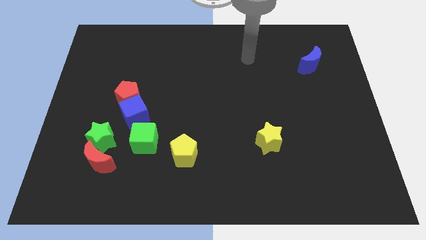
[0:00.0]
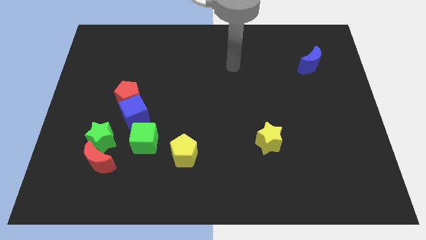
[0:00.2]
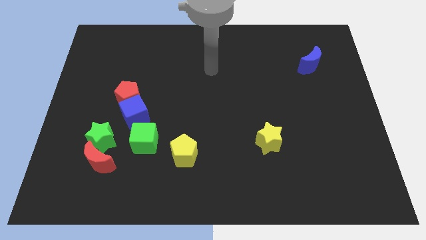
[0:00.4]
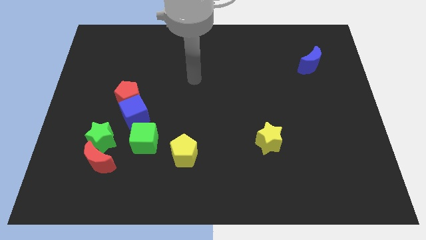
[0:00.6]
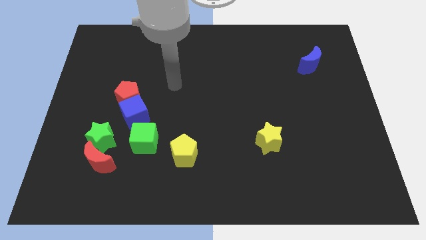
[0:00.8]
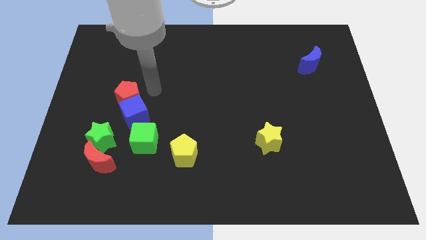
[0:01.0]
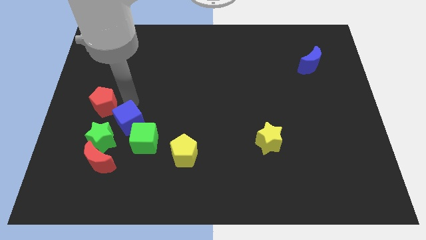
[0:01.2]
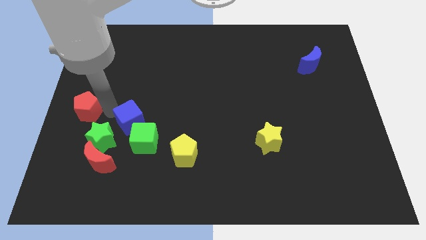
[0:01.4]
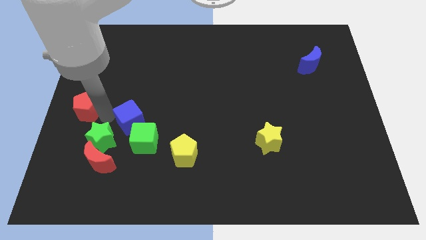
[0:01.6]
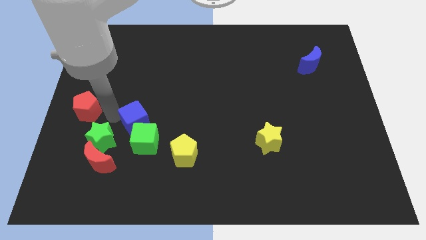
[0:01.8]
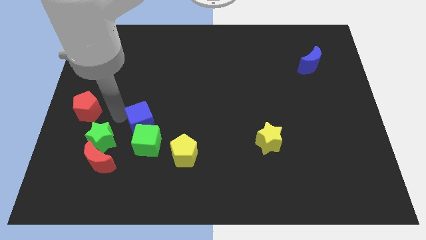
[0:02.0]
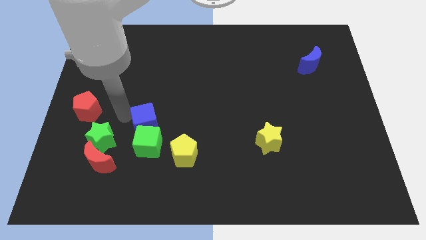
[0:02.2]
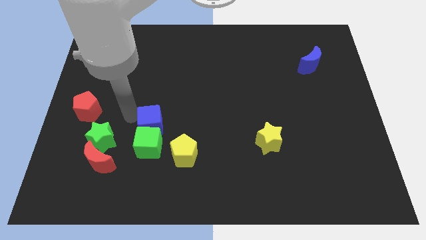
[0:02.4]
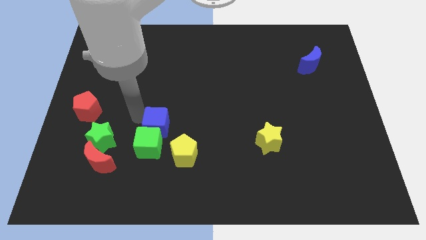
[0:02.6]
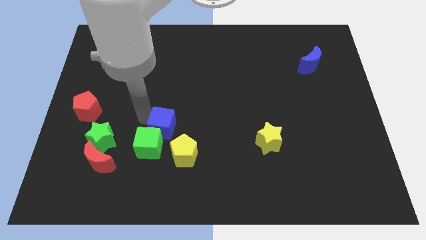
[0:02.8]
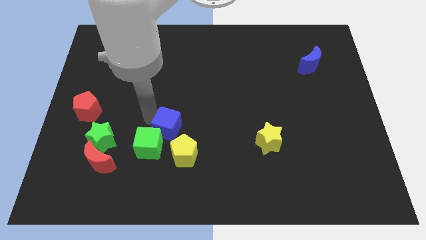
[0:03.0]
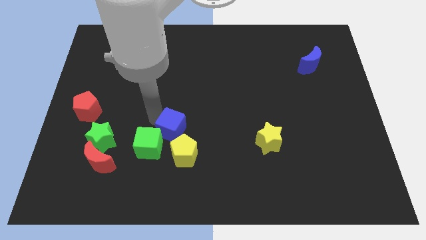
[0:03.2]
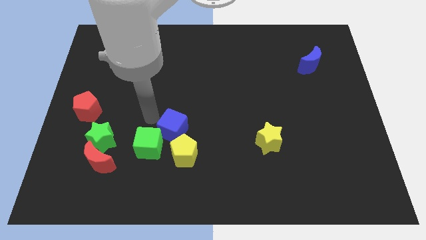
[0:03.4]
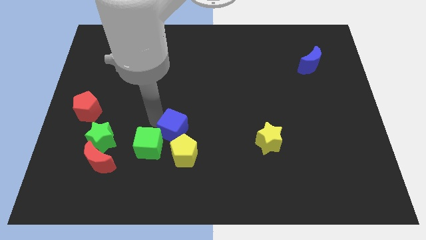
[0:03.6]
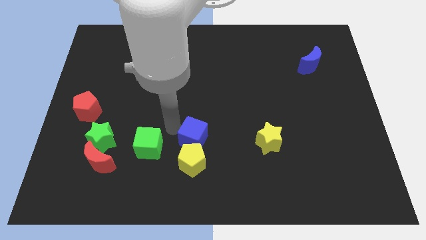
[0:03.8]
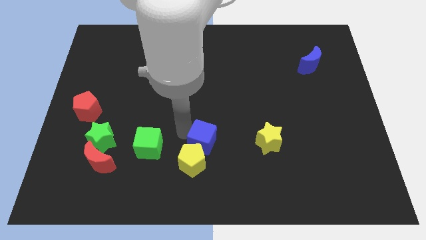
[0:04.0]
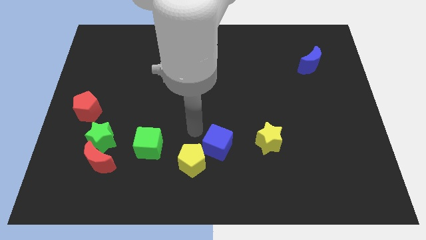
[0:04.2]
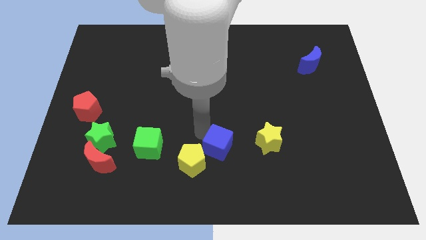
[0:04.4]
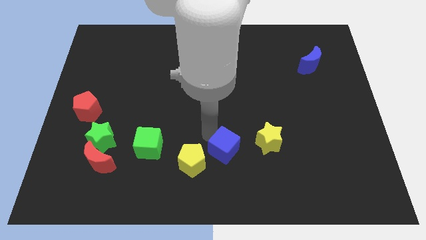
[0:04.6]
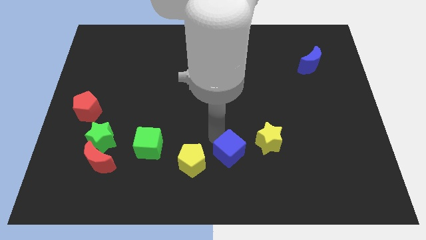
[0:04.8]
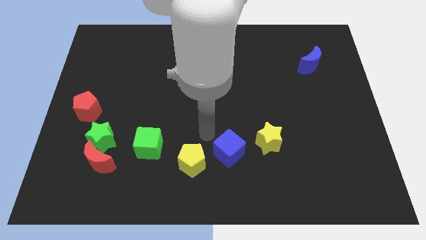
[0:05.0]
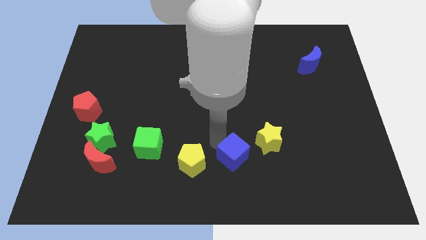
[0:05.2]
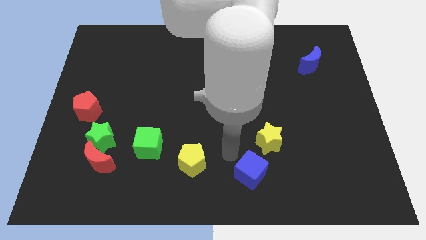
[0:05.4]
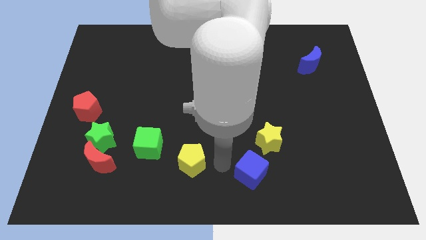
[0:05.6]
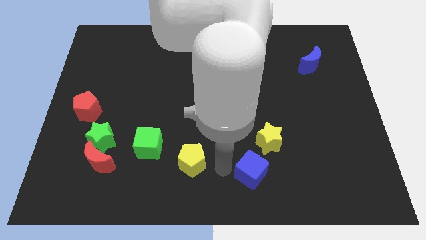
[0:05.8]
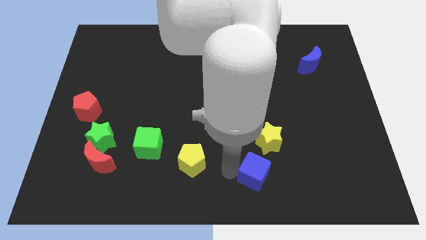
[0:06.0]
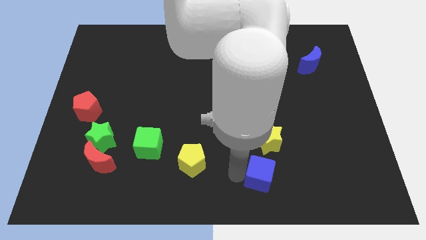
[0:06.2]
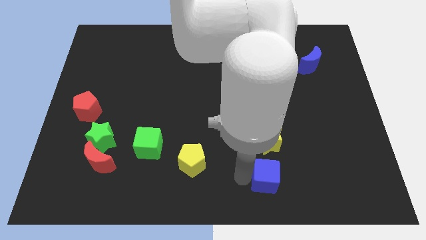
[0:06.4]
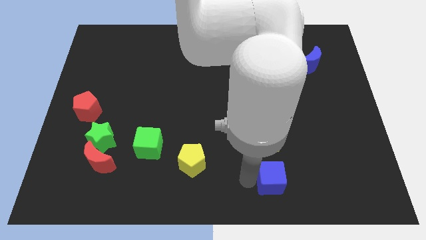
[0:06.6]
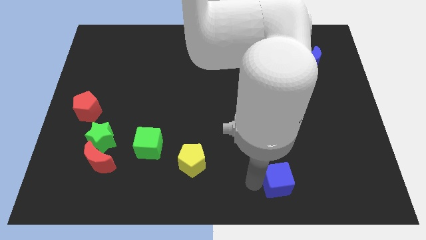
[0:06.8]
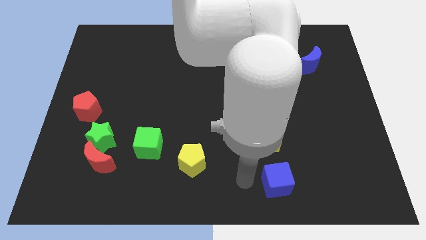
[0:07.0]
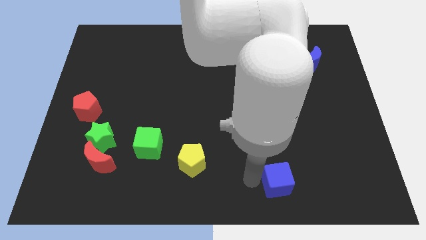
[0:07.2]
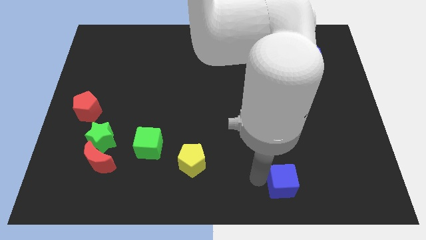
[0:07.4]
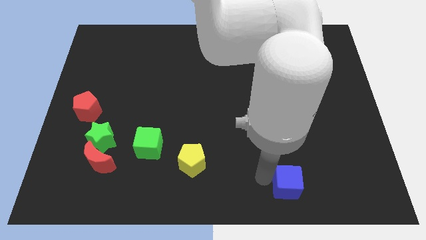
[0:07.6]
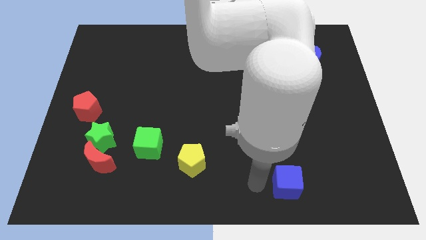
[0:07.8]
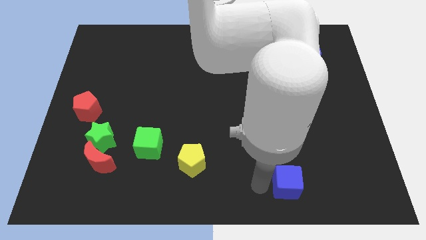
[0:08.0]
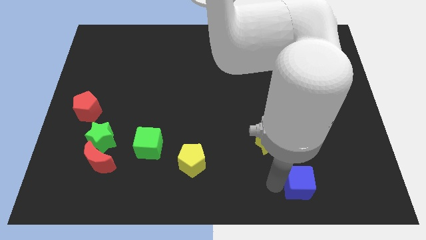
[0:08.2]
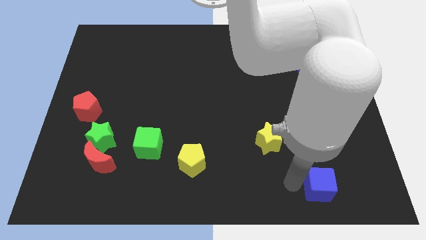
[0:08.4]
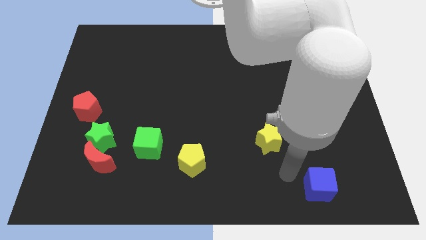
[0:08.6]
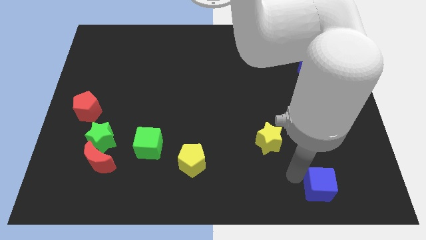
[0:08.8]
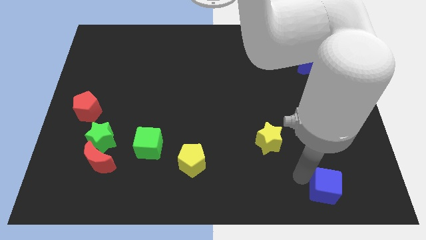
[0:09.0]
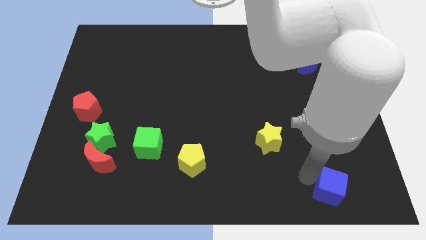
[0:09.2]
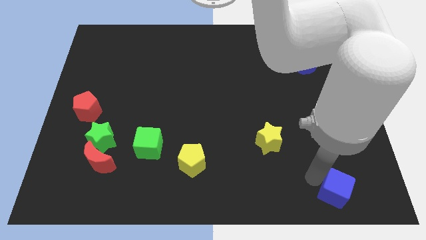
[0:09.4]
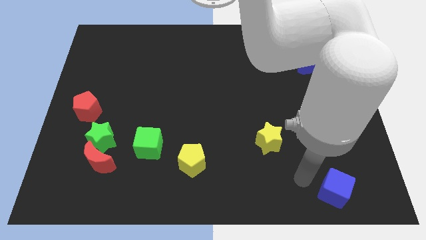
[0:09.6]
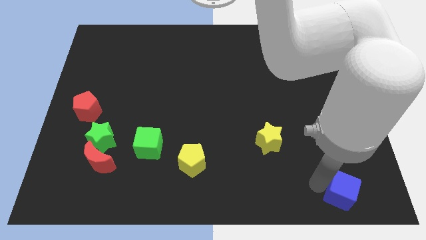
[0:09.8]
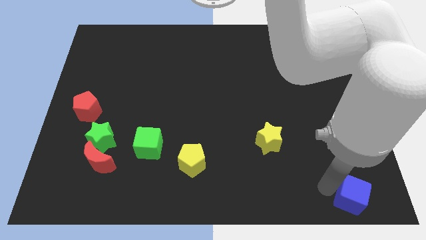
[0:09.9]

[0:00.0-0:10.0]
put the blue cube to the bottom right of the board

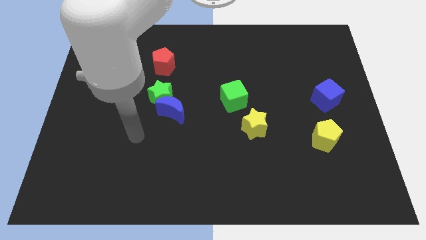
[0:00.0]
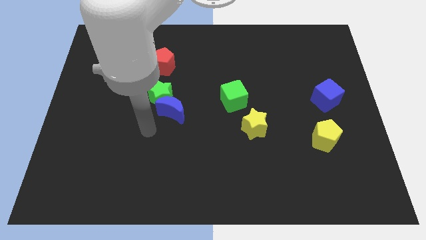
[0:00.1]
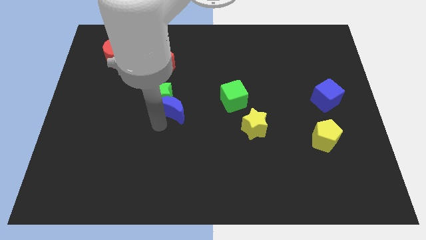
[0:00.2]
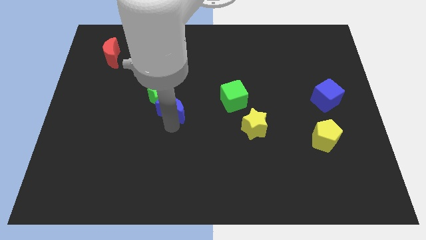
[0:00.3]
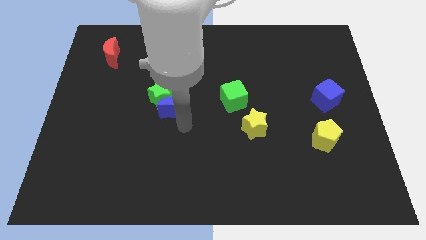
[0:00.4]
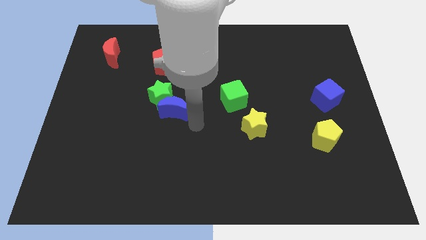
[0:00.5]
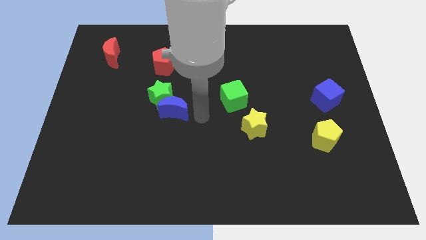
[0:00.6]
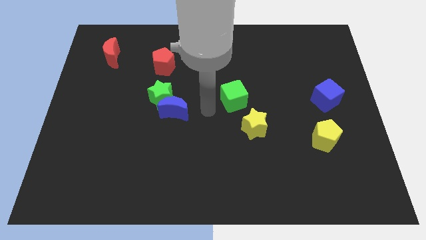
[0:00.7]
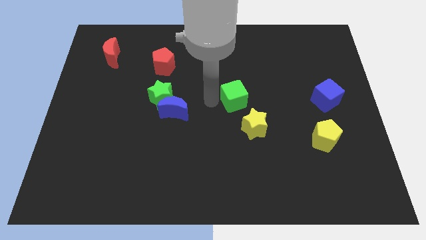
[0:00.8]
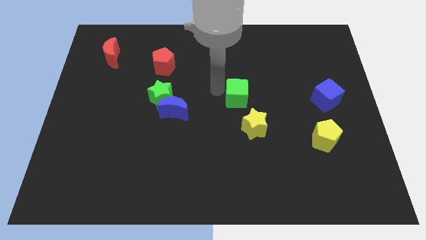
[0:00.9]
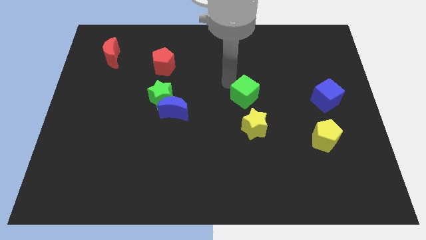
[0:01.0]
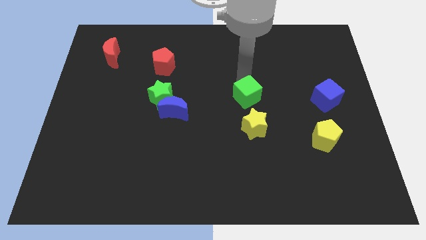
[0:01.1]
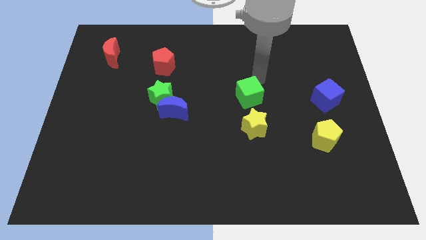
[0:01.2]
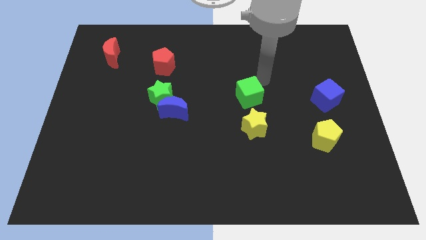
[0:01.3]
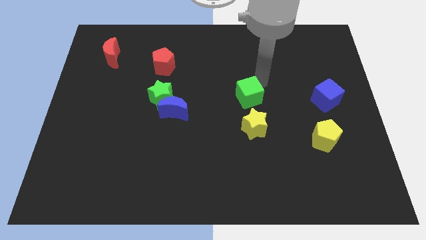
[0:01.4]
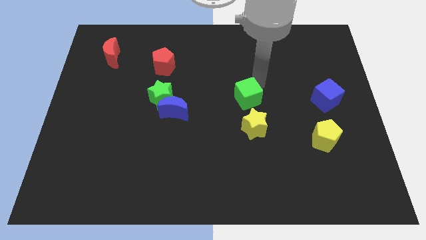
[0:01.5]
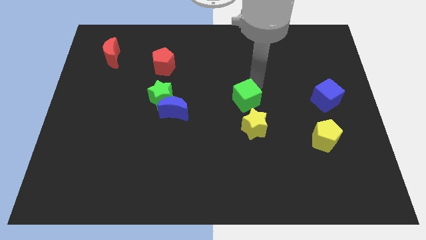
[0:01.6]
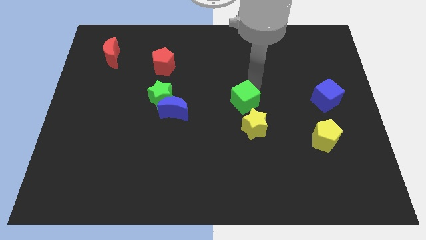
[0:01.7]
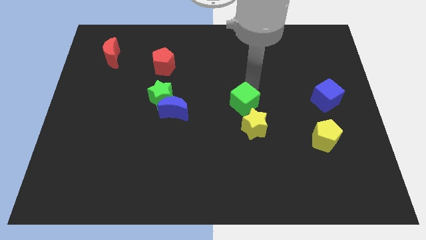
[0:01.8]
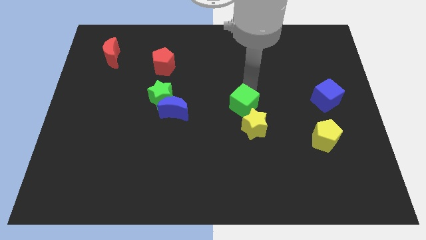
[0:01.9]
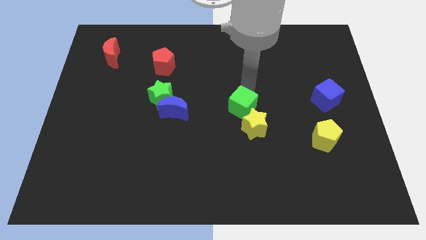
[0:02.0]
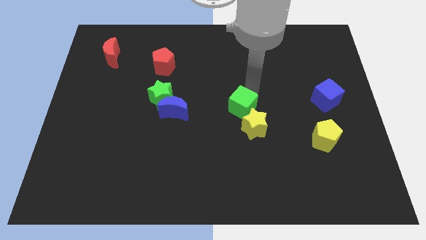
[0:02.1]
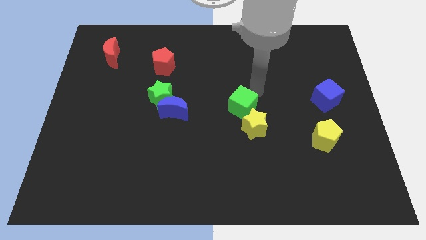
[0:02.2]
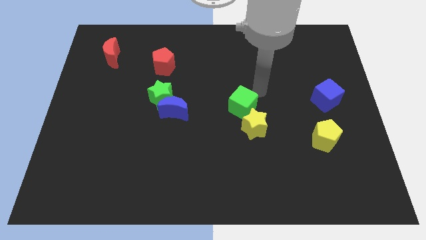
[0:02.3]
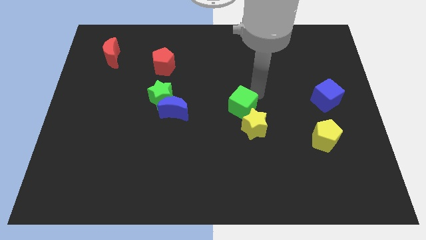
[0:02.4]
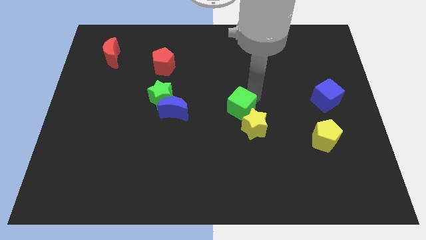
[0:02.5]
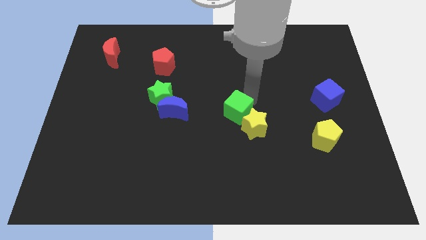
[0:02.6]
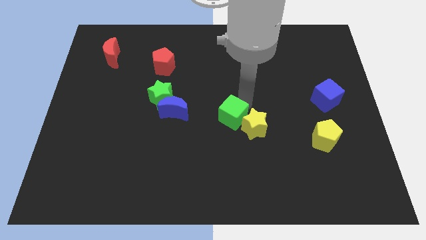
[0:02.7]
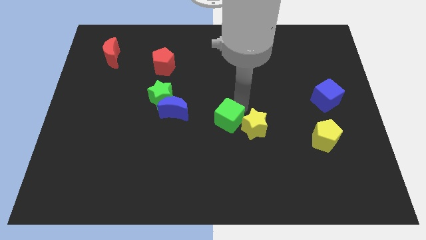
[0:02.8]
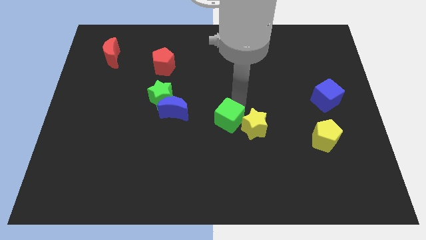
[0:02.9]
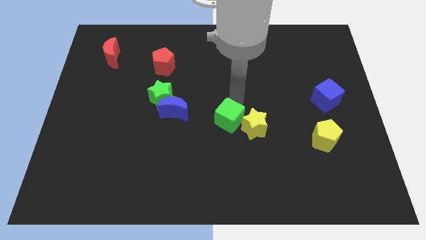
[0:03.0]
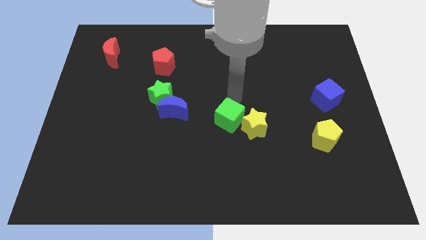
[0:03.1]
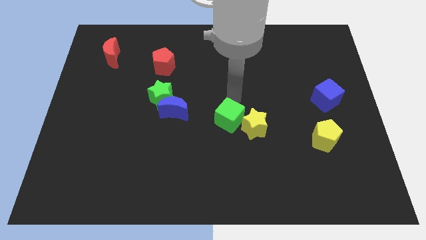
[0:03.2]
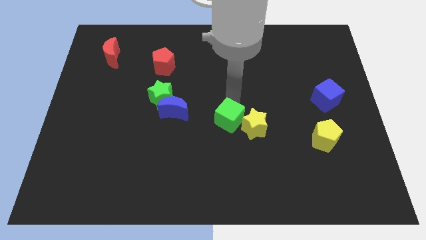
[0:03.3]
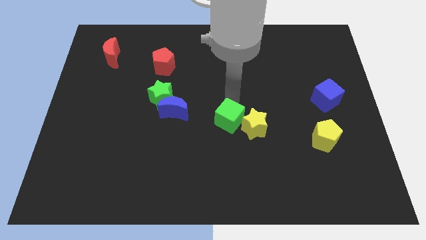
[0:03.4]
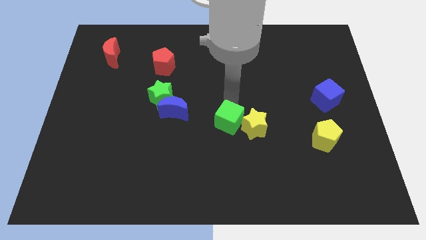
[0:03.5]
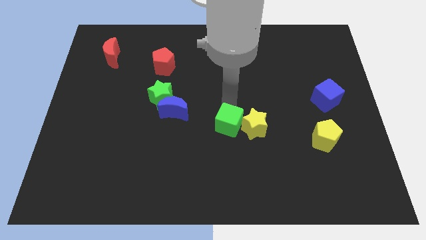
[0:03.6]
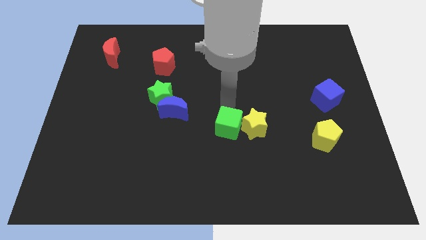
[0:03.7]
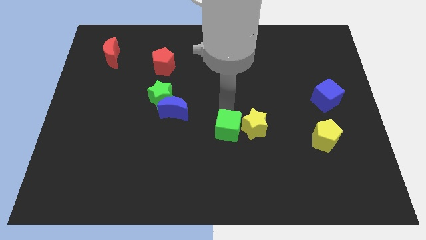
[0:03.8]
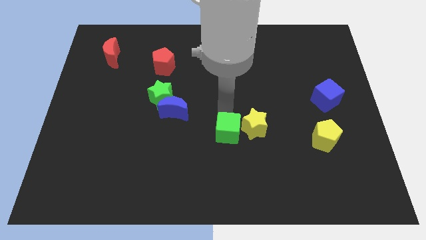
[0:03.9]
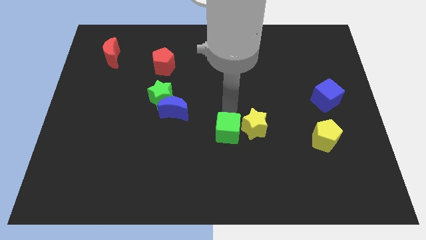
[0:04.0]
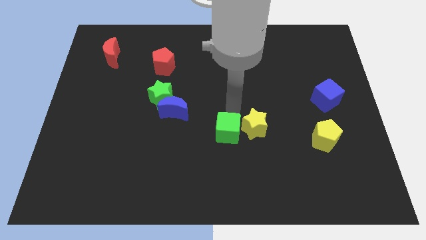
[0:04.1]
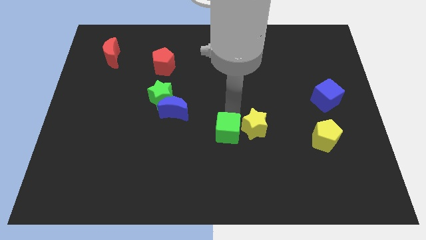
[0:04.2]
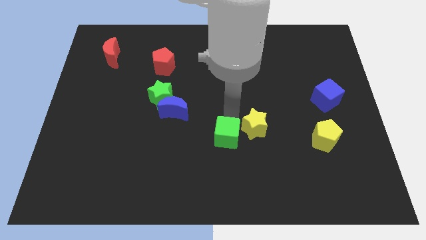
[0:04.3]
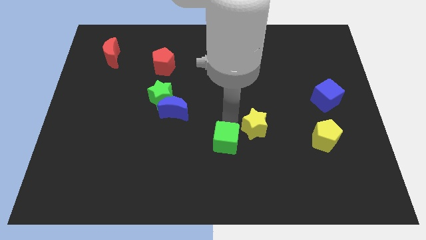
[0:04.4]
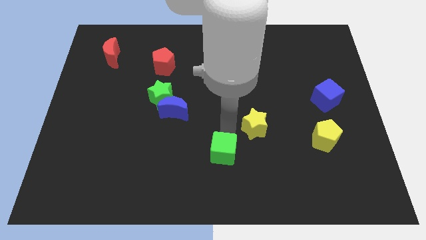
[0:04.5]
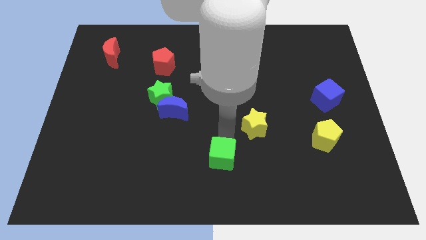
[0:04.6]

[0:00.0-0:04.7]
slide the green cube to the bottom side
